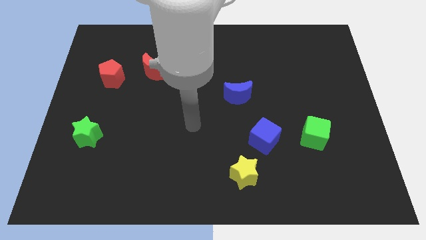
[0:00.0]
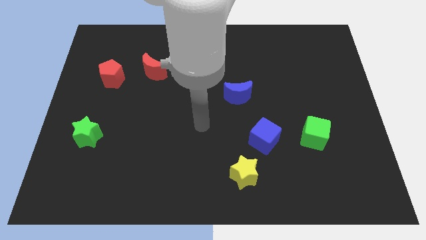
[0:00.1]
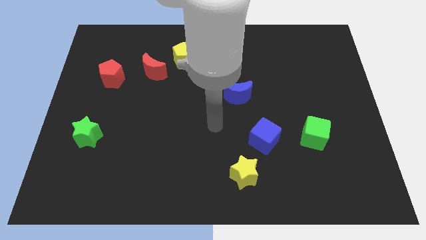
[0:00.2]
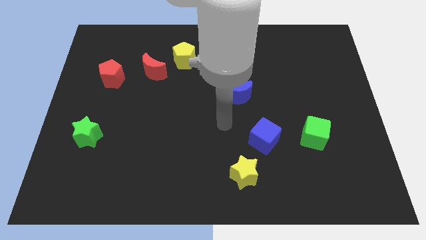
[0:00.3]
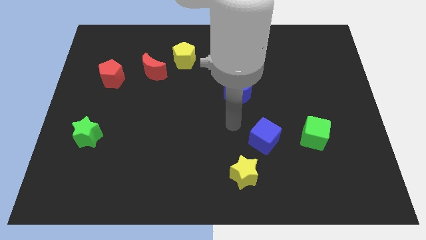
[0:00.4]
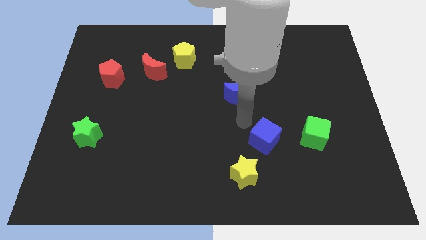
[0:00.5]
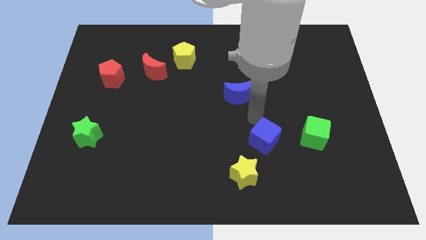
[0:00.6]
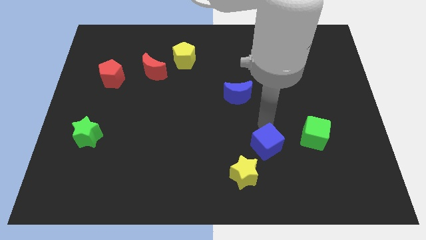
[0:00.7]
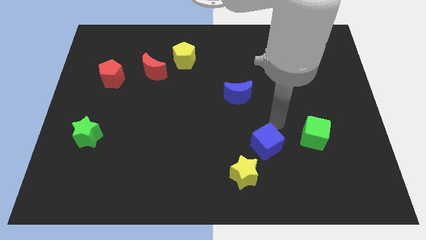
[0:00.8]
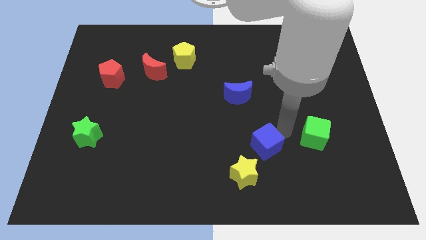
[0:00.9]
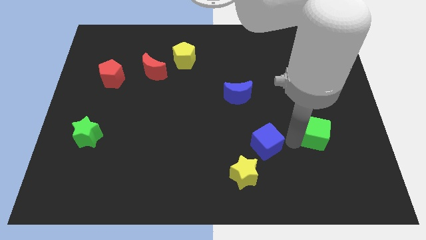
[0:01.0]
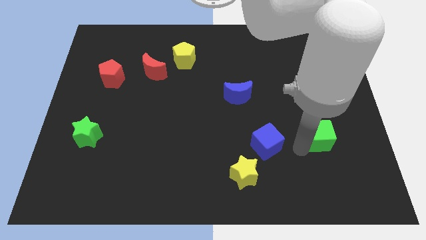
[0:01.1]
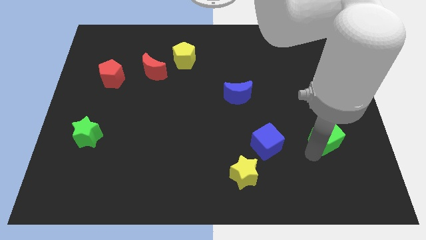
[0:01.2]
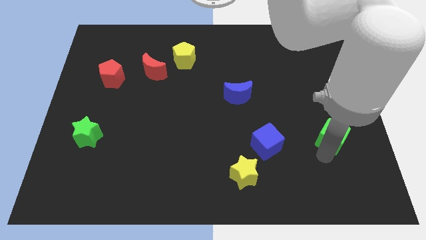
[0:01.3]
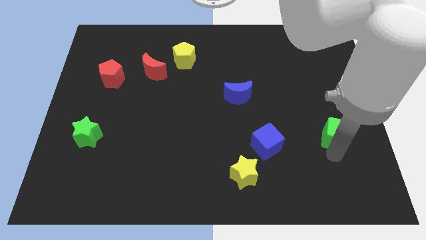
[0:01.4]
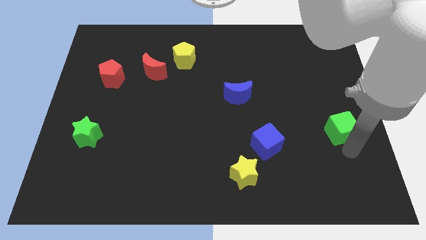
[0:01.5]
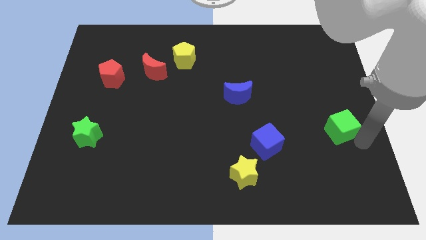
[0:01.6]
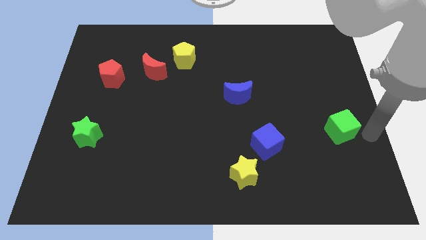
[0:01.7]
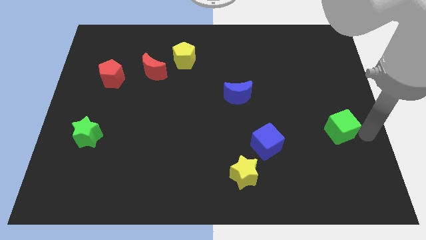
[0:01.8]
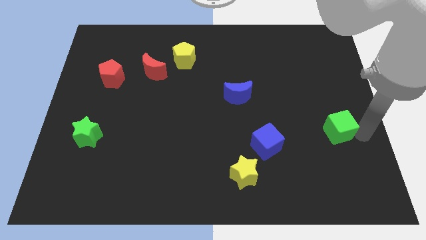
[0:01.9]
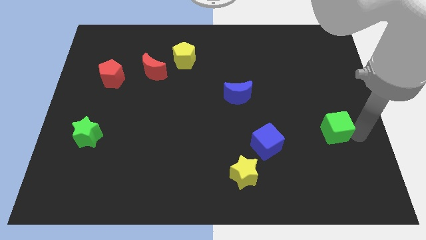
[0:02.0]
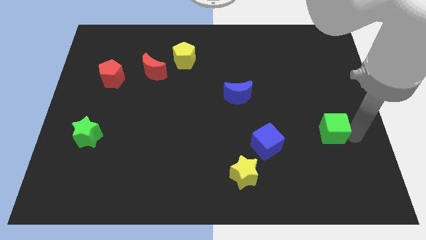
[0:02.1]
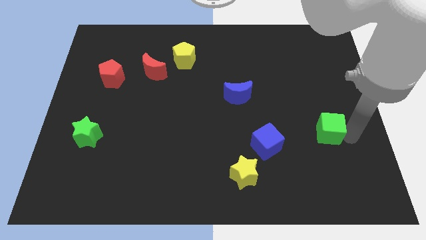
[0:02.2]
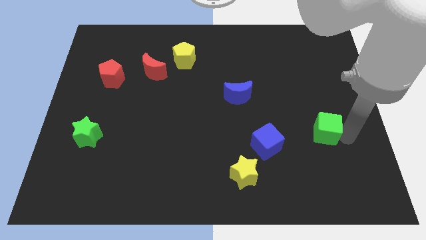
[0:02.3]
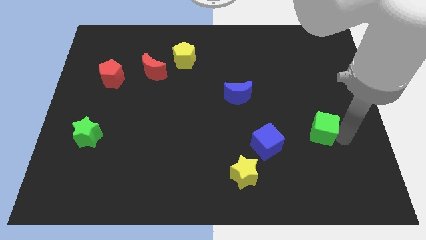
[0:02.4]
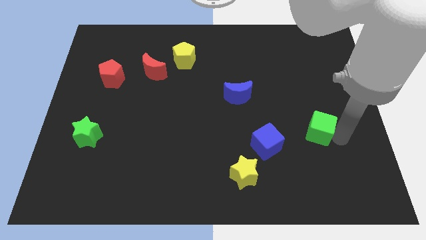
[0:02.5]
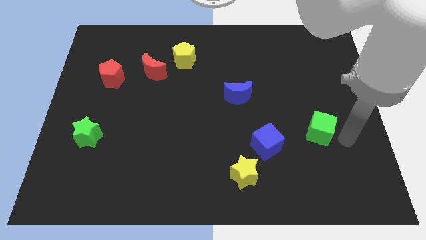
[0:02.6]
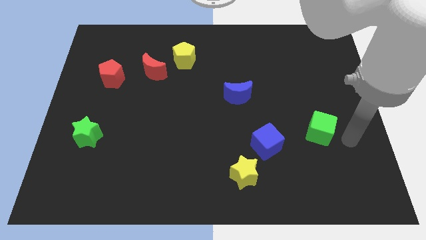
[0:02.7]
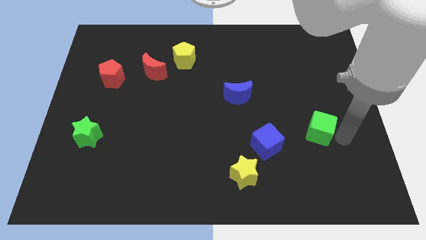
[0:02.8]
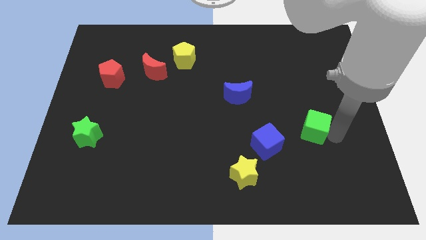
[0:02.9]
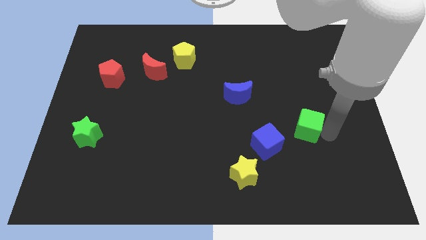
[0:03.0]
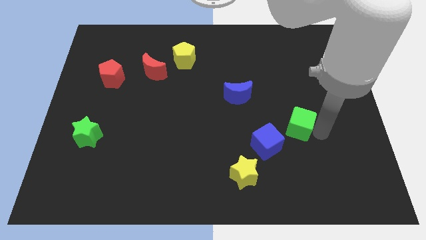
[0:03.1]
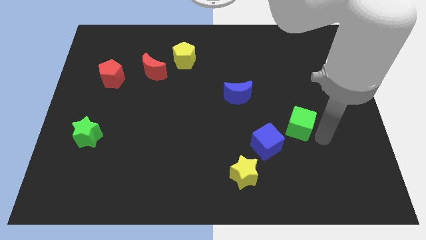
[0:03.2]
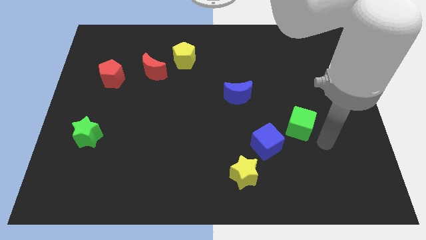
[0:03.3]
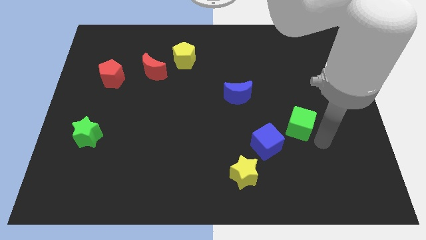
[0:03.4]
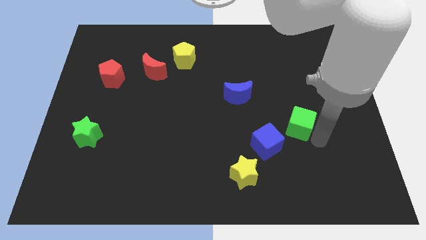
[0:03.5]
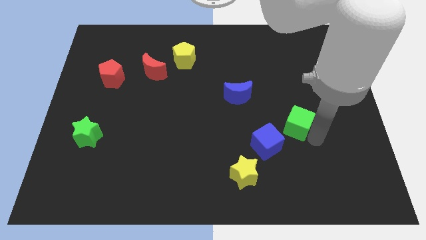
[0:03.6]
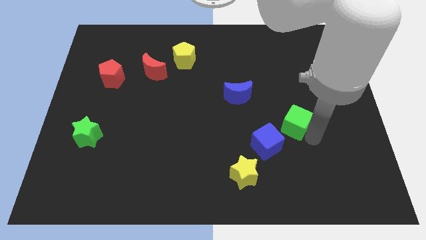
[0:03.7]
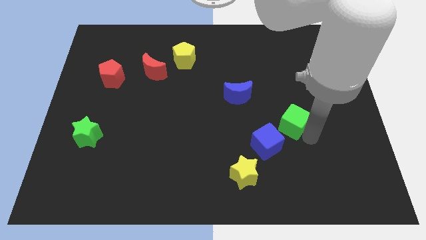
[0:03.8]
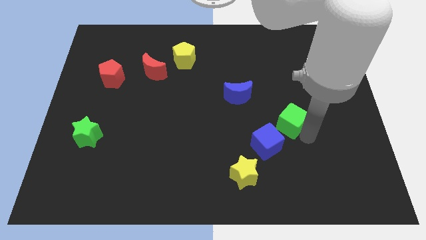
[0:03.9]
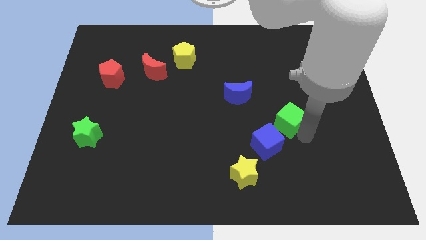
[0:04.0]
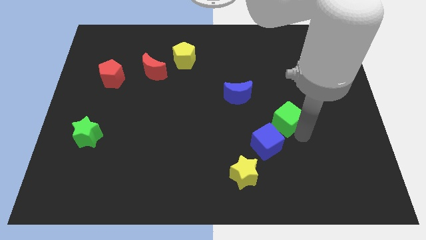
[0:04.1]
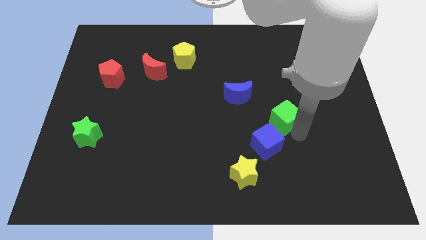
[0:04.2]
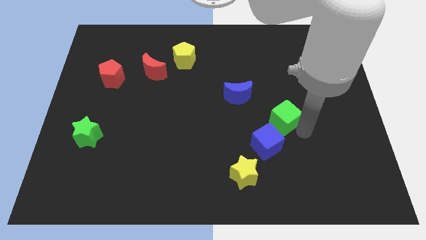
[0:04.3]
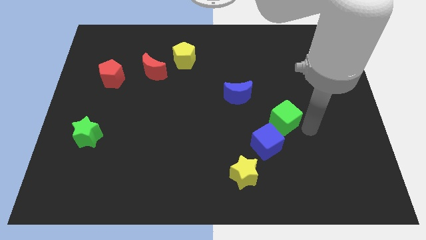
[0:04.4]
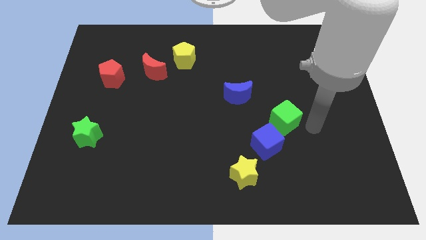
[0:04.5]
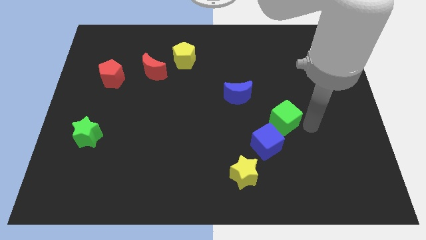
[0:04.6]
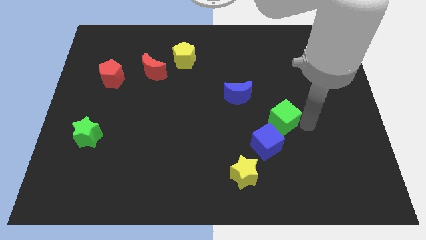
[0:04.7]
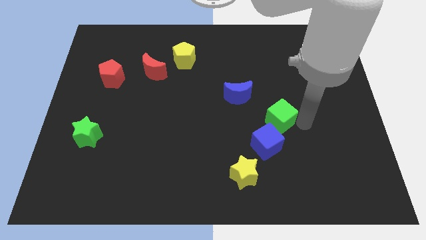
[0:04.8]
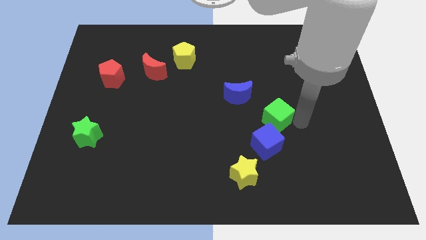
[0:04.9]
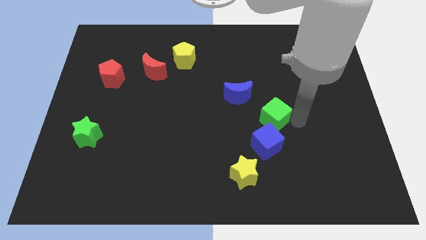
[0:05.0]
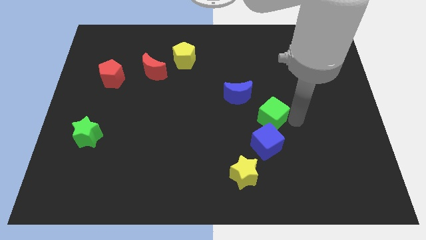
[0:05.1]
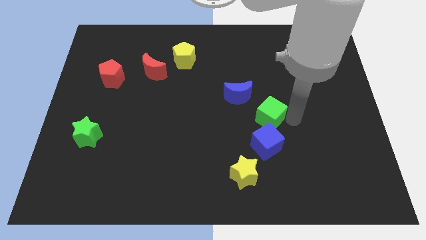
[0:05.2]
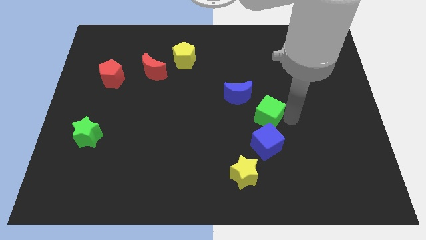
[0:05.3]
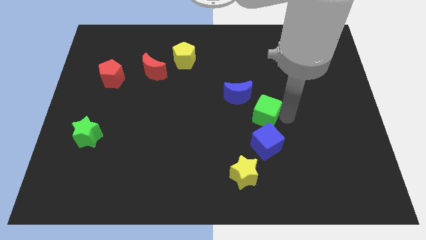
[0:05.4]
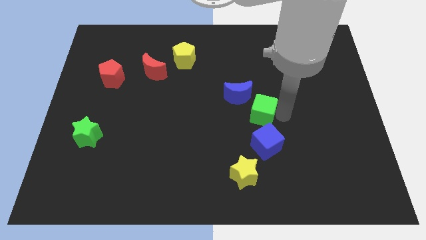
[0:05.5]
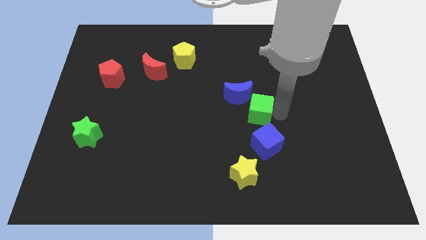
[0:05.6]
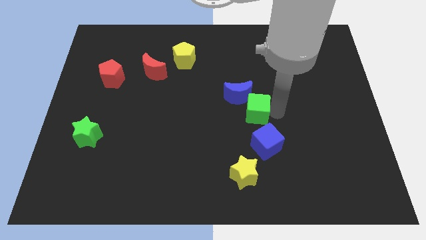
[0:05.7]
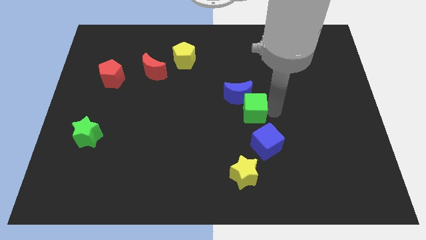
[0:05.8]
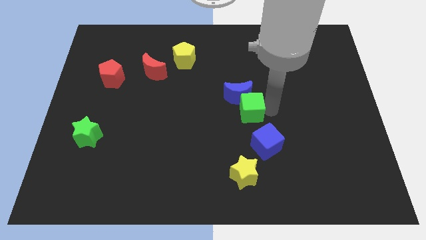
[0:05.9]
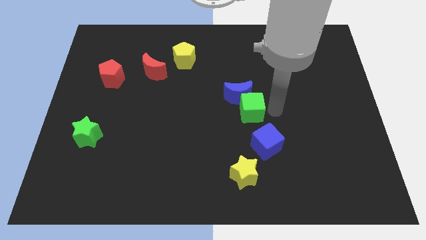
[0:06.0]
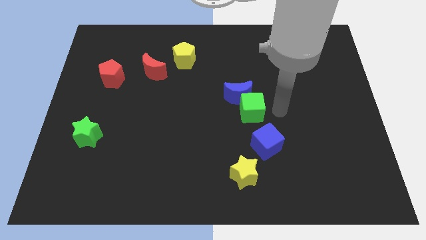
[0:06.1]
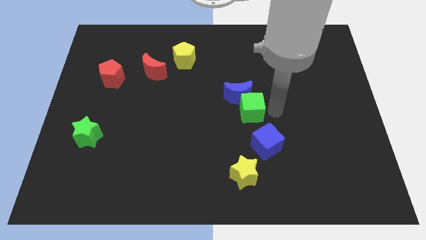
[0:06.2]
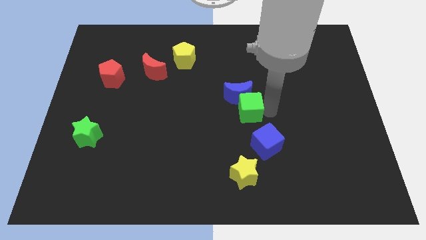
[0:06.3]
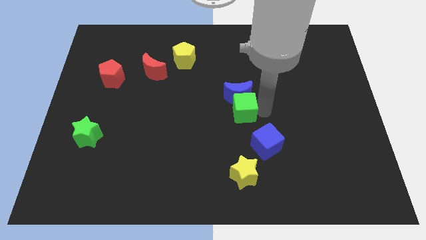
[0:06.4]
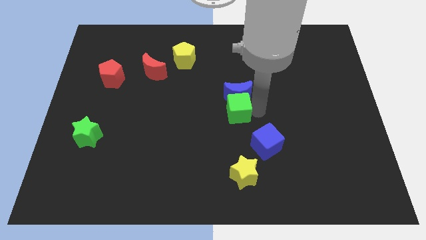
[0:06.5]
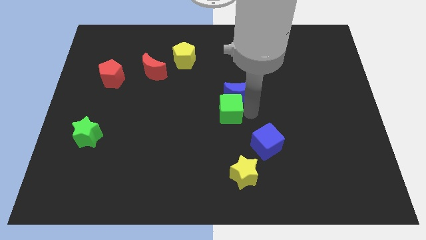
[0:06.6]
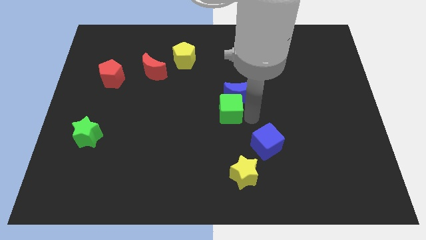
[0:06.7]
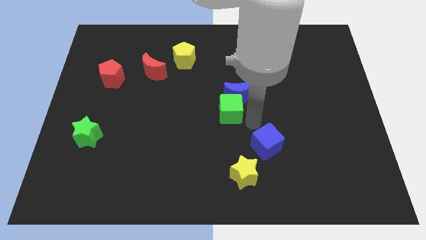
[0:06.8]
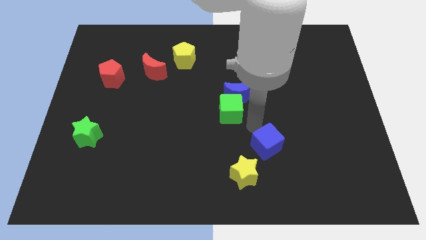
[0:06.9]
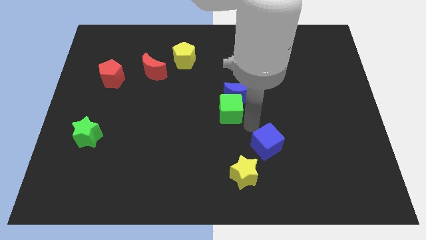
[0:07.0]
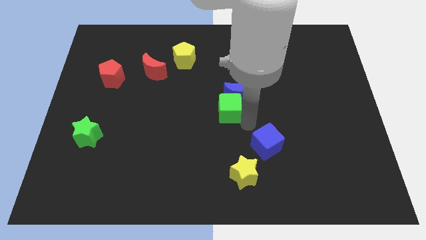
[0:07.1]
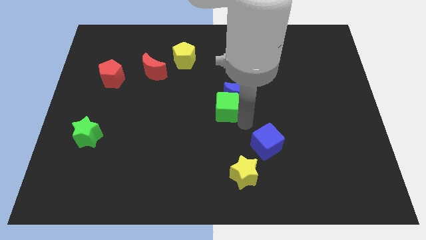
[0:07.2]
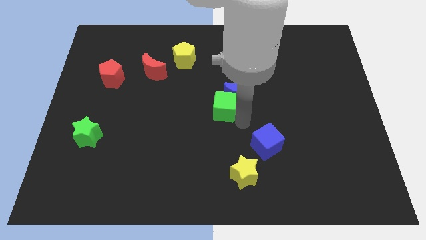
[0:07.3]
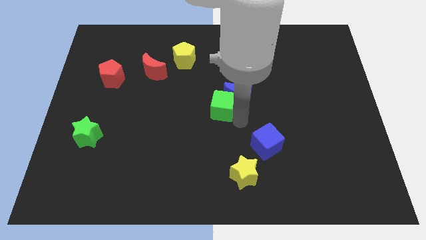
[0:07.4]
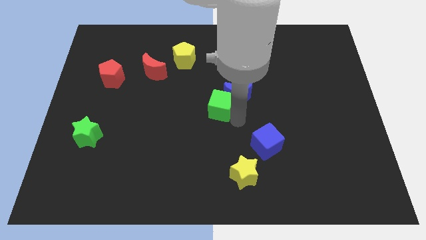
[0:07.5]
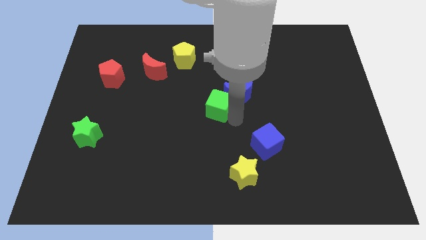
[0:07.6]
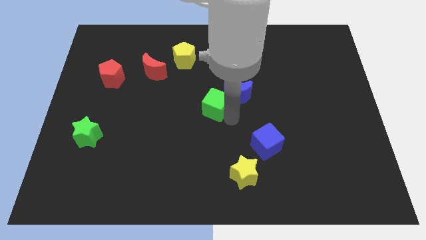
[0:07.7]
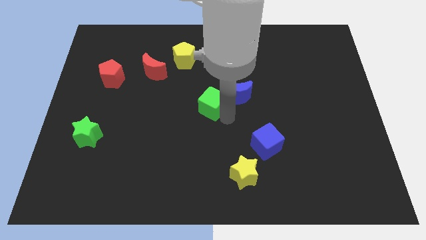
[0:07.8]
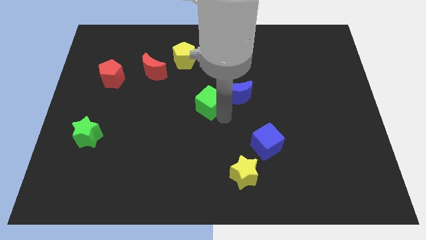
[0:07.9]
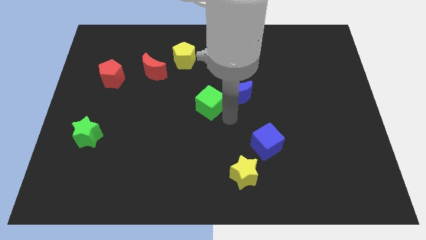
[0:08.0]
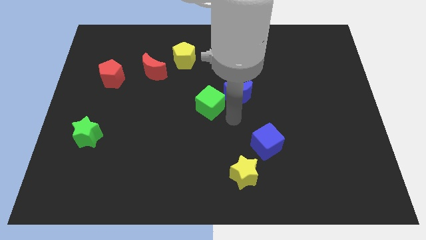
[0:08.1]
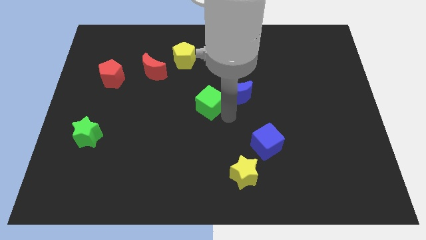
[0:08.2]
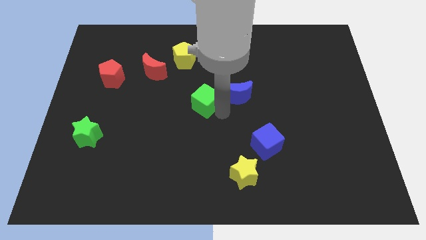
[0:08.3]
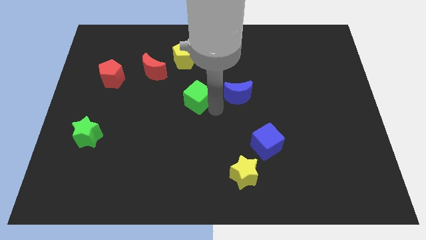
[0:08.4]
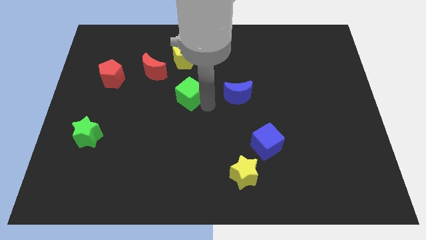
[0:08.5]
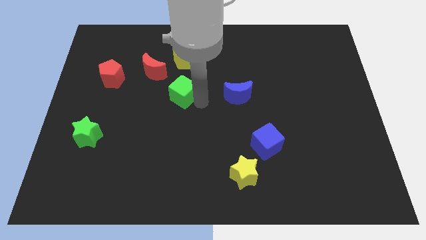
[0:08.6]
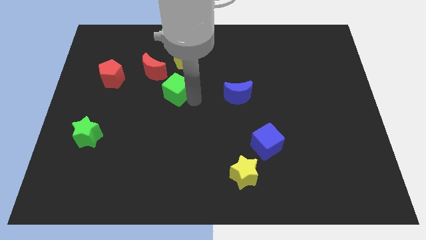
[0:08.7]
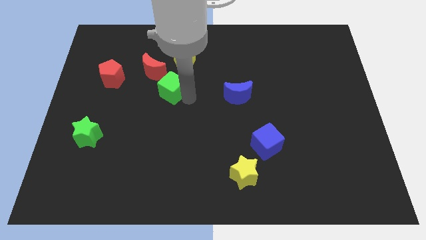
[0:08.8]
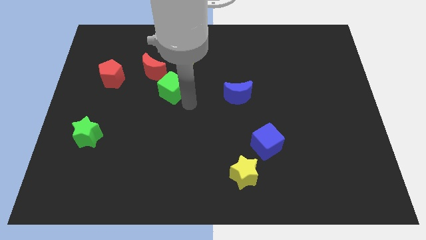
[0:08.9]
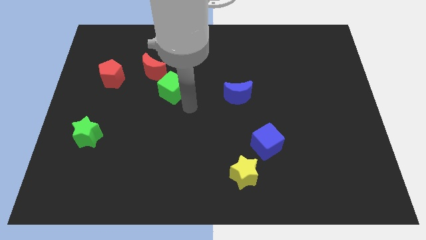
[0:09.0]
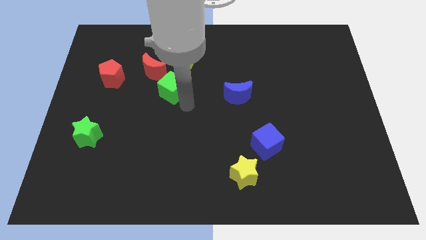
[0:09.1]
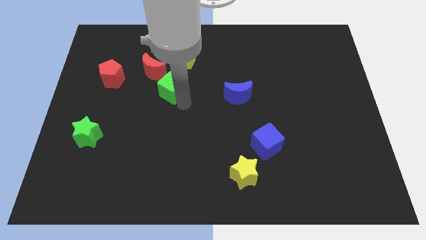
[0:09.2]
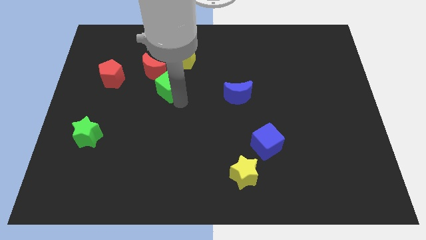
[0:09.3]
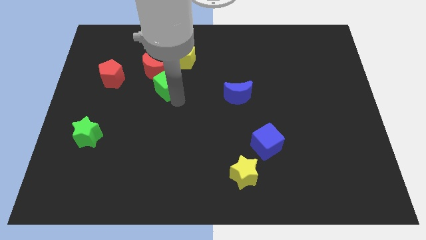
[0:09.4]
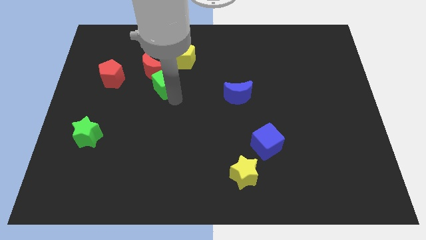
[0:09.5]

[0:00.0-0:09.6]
slide the green cube next to the red moon
